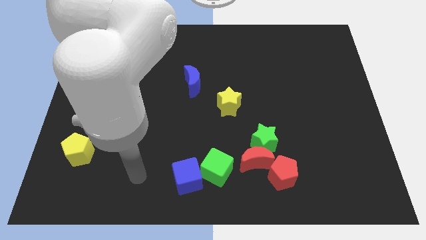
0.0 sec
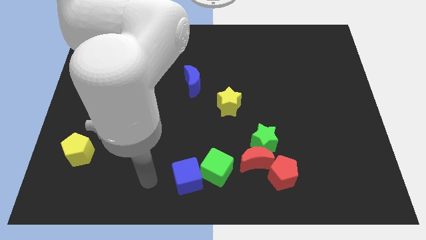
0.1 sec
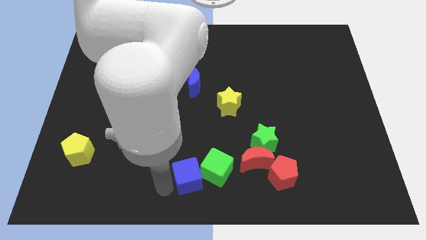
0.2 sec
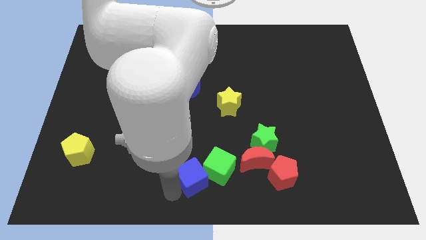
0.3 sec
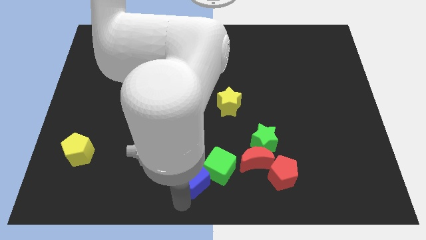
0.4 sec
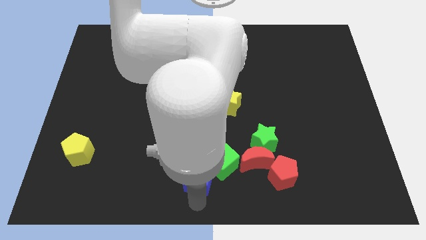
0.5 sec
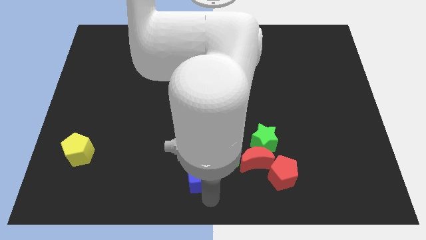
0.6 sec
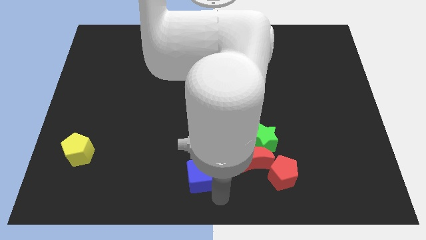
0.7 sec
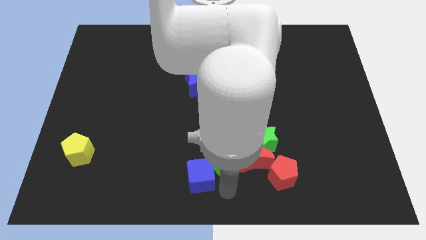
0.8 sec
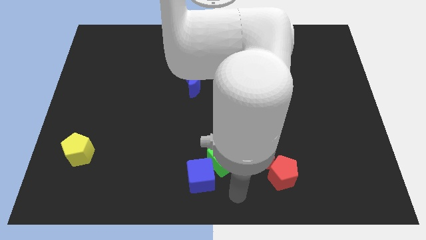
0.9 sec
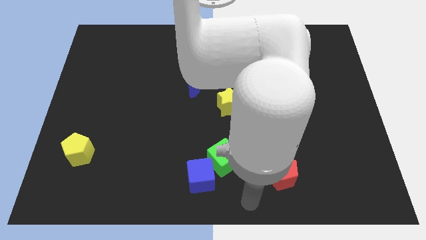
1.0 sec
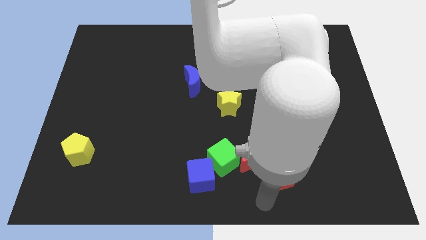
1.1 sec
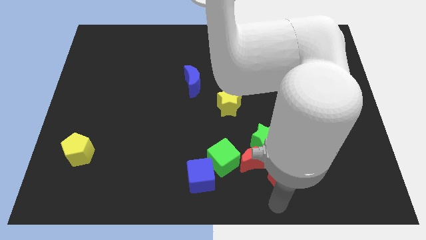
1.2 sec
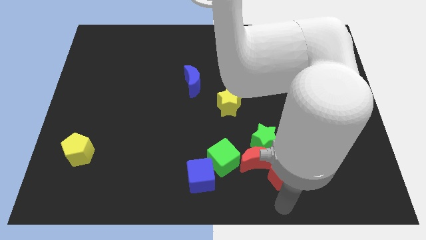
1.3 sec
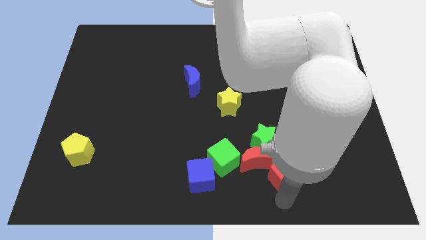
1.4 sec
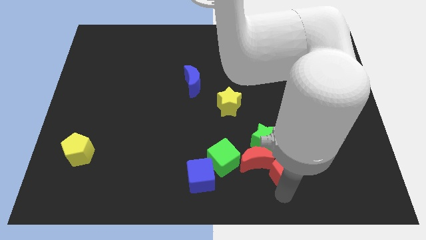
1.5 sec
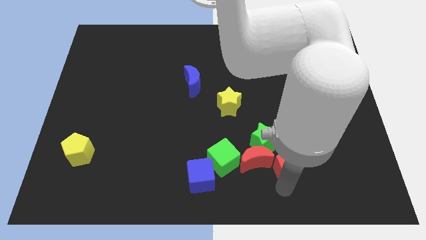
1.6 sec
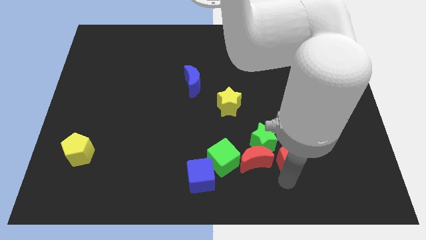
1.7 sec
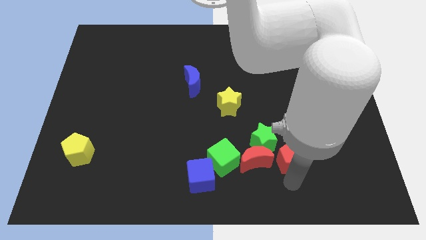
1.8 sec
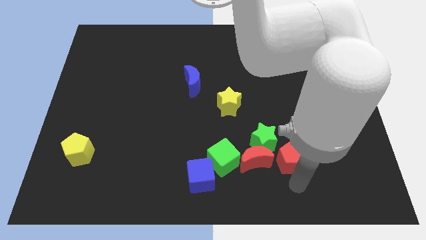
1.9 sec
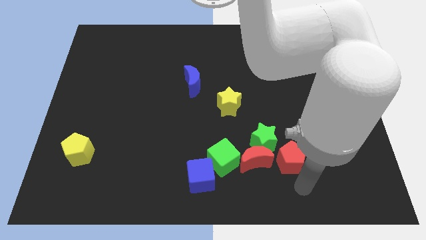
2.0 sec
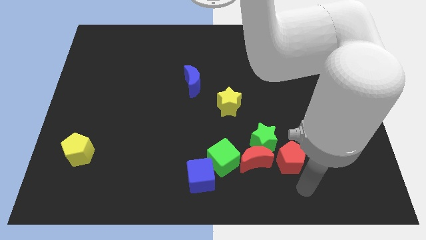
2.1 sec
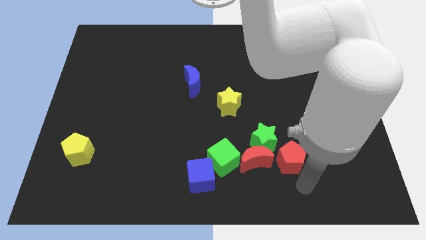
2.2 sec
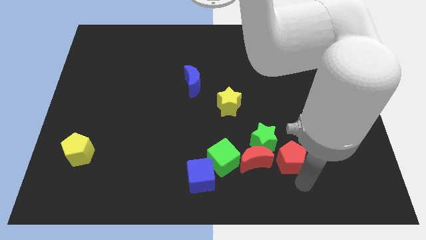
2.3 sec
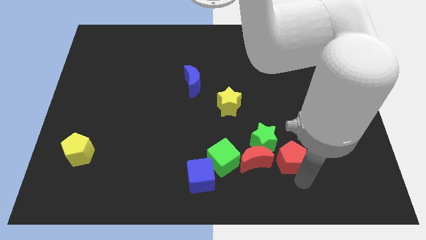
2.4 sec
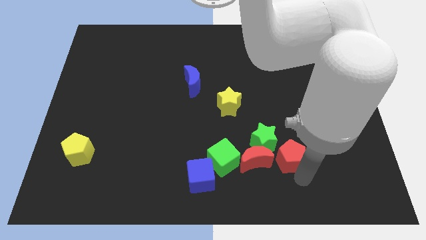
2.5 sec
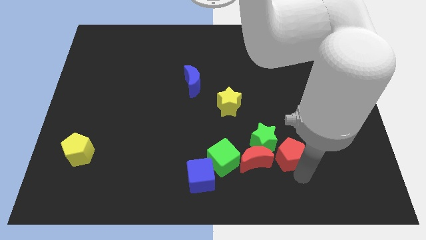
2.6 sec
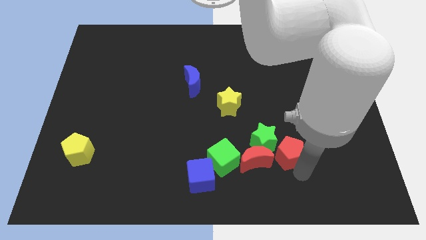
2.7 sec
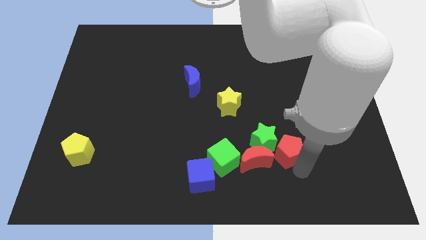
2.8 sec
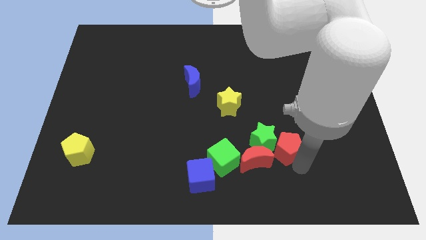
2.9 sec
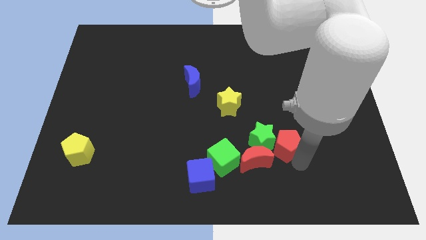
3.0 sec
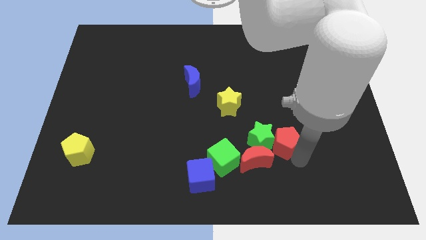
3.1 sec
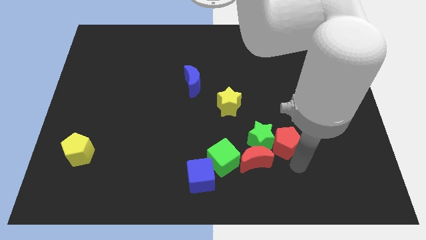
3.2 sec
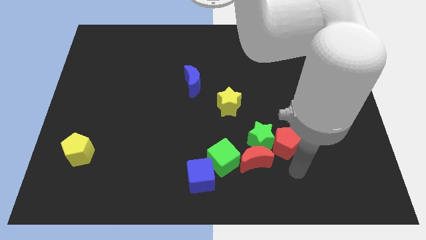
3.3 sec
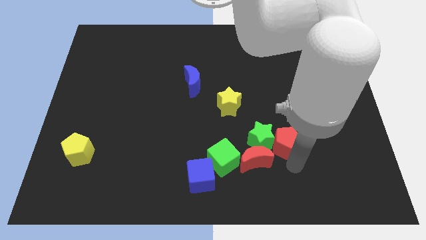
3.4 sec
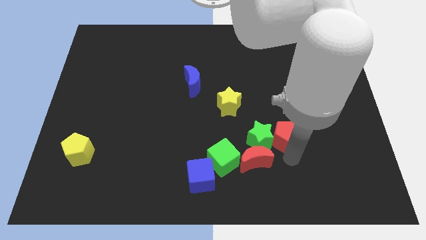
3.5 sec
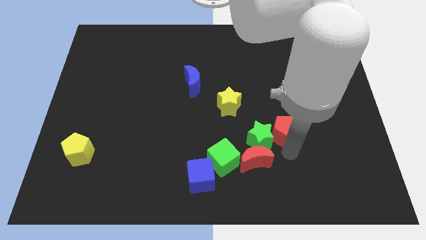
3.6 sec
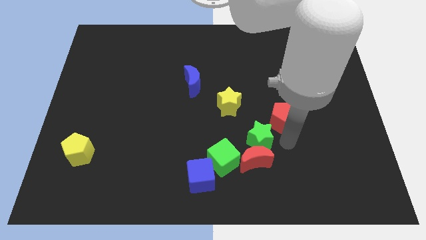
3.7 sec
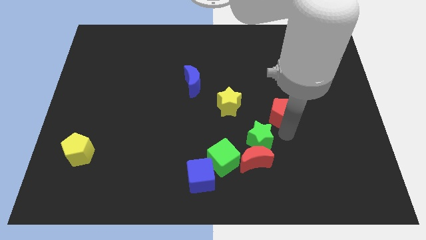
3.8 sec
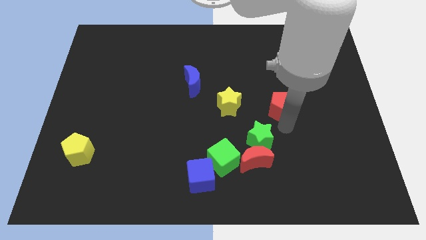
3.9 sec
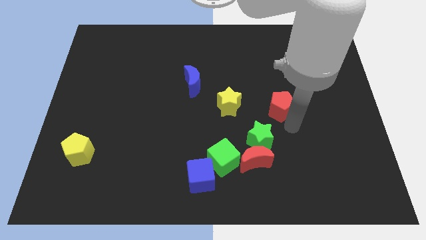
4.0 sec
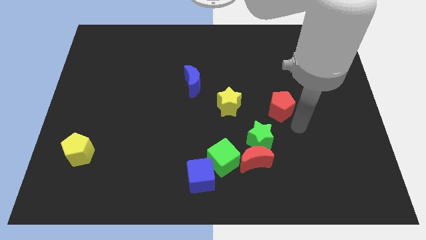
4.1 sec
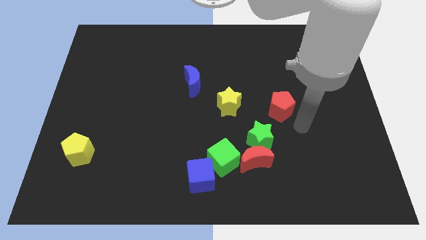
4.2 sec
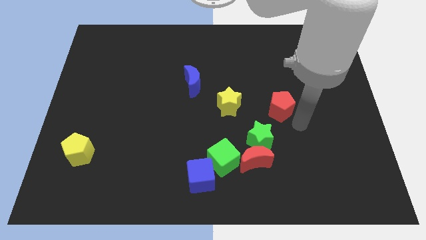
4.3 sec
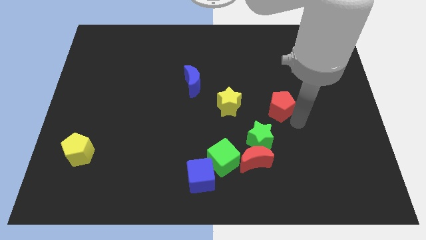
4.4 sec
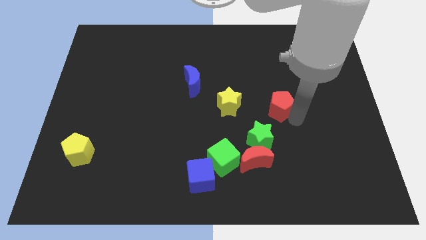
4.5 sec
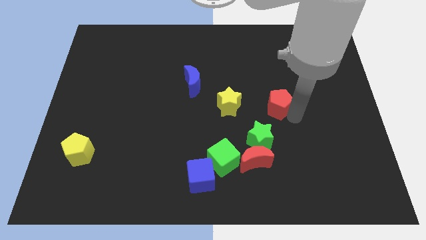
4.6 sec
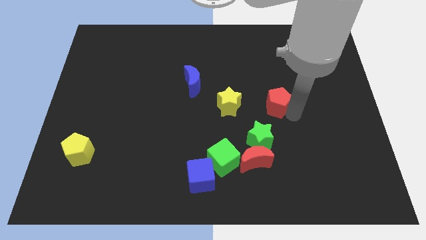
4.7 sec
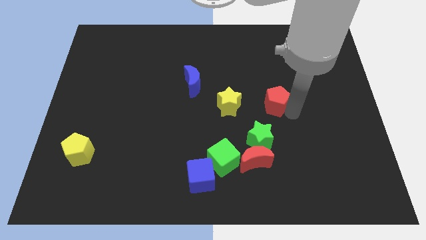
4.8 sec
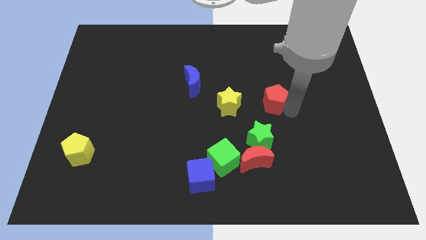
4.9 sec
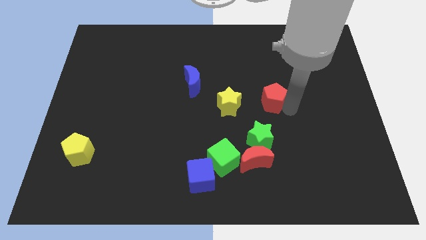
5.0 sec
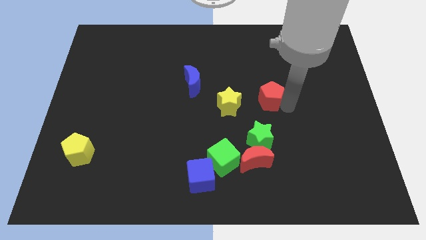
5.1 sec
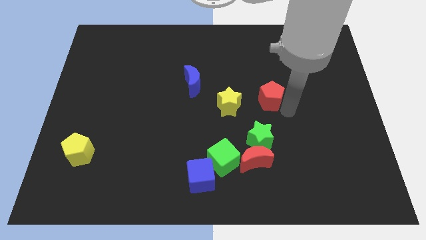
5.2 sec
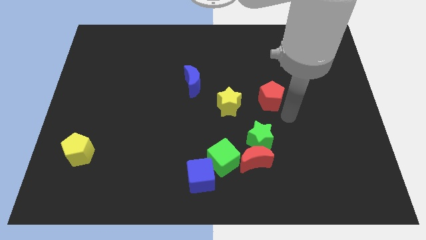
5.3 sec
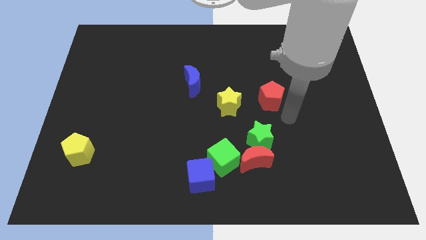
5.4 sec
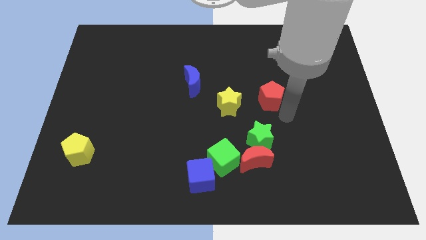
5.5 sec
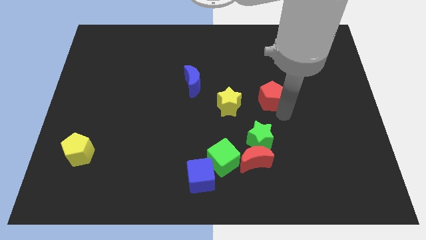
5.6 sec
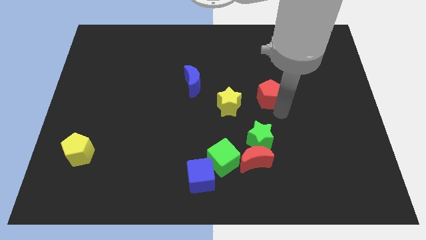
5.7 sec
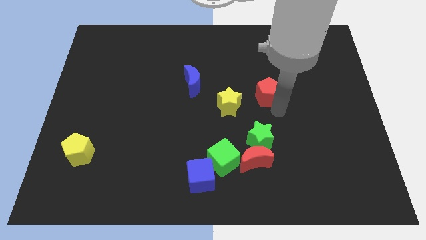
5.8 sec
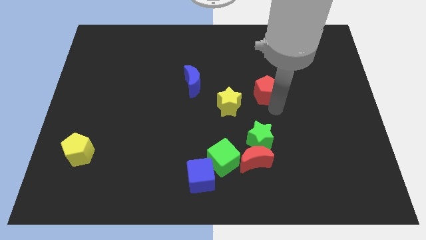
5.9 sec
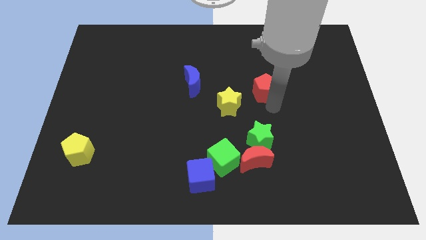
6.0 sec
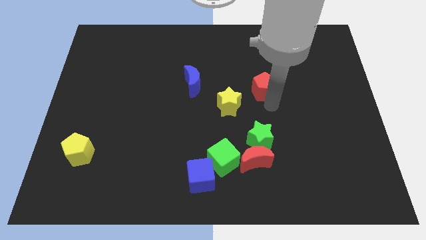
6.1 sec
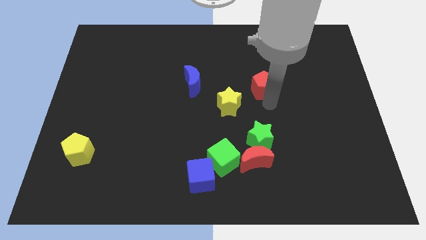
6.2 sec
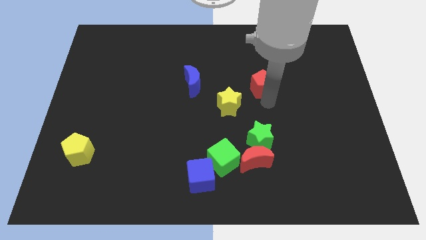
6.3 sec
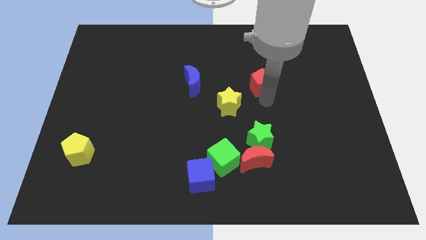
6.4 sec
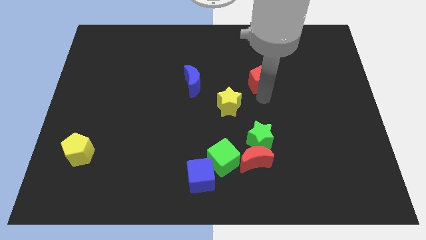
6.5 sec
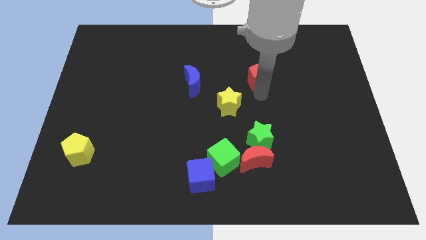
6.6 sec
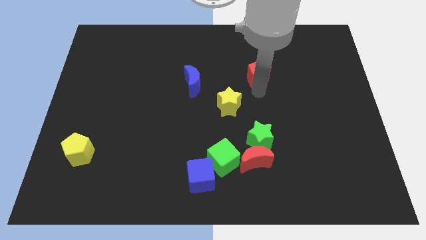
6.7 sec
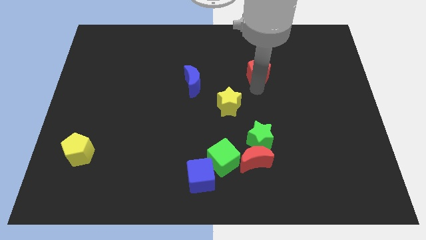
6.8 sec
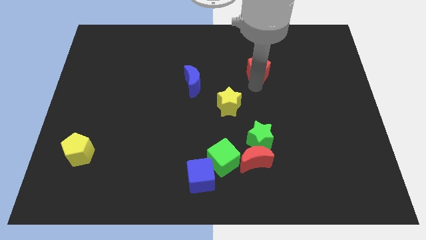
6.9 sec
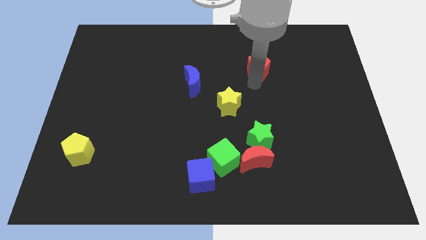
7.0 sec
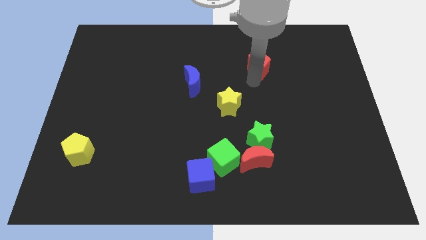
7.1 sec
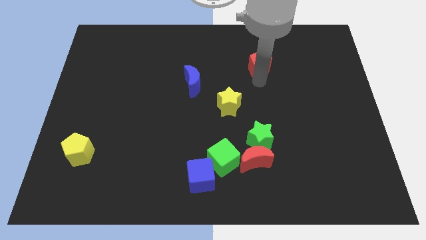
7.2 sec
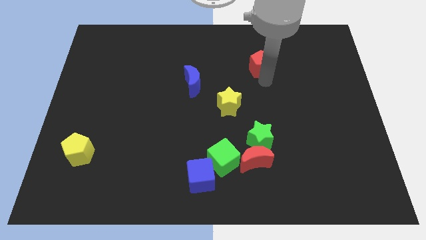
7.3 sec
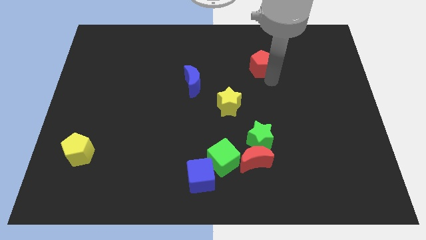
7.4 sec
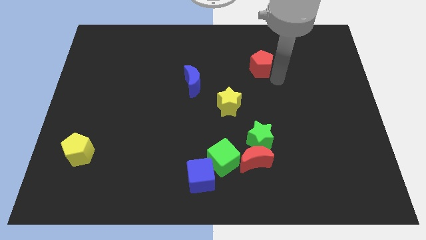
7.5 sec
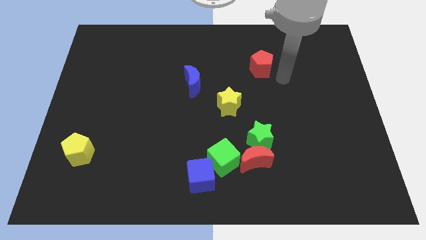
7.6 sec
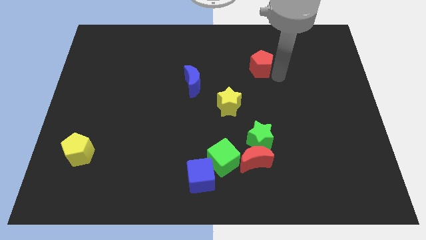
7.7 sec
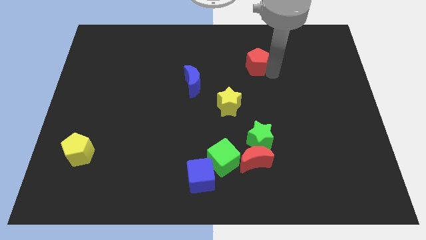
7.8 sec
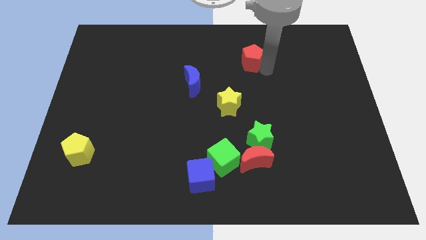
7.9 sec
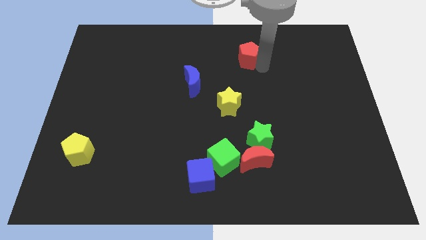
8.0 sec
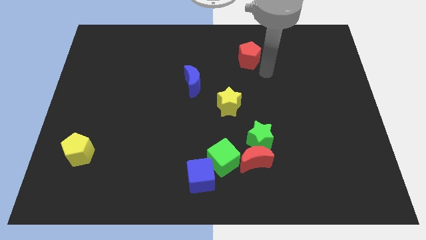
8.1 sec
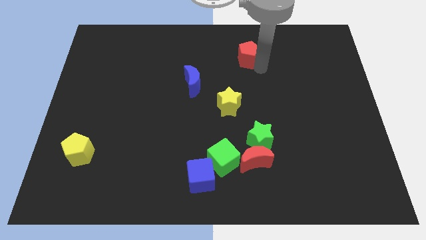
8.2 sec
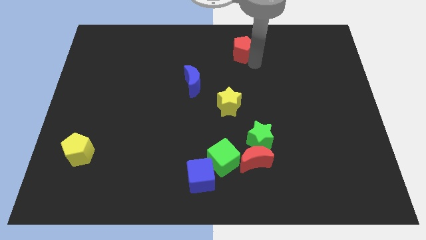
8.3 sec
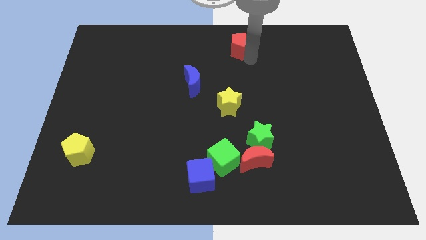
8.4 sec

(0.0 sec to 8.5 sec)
push the red pentagon to the towards your base
